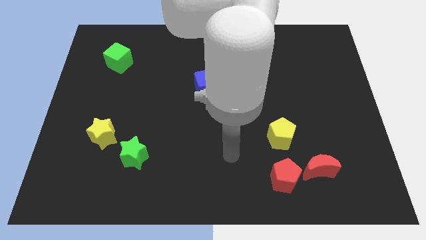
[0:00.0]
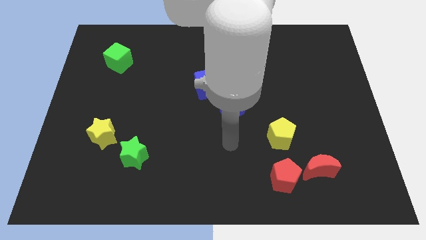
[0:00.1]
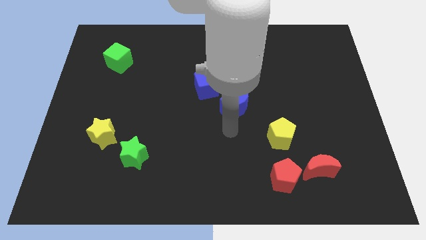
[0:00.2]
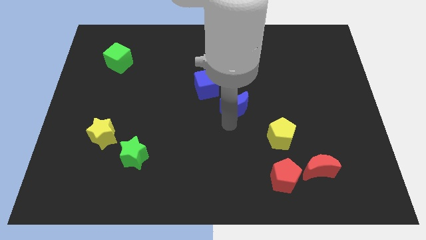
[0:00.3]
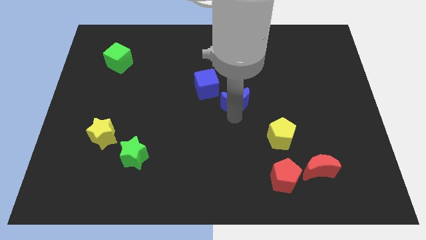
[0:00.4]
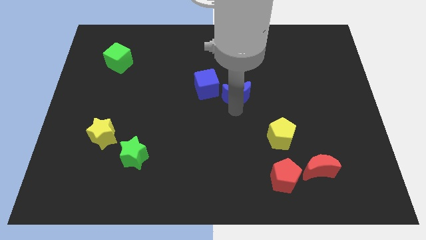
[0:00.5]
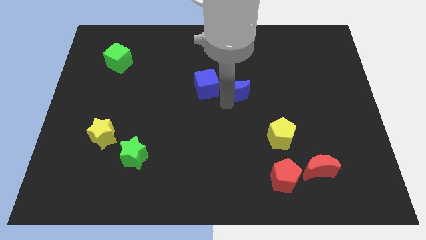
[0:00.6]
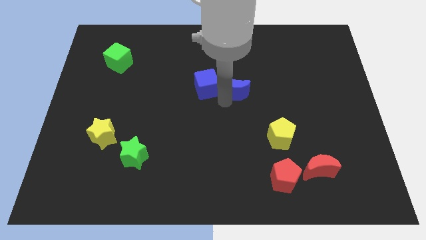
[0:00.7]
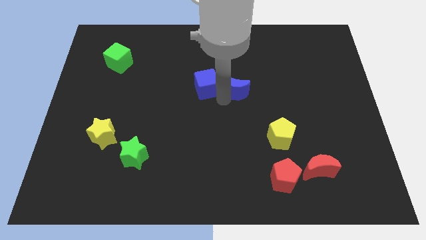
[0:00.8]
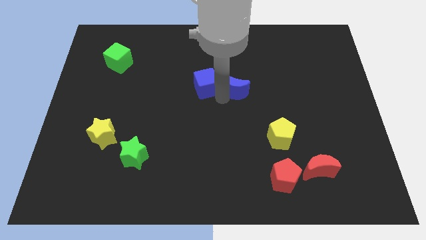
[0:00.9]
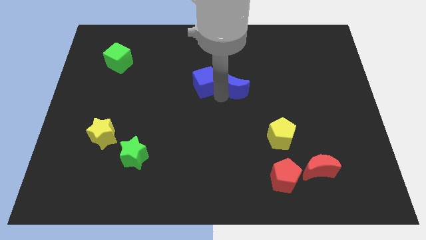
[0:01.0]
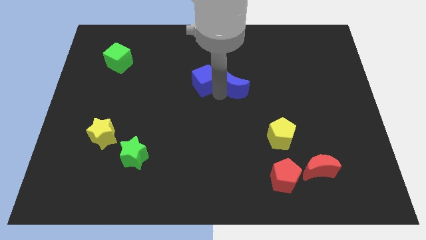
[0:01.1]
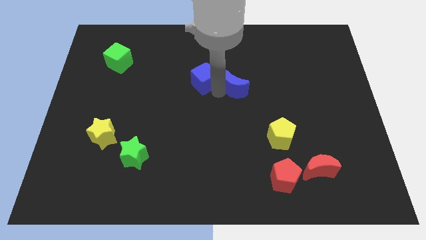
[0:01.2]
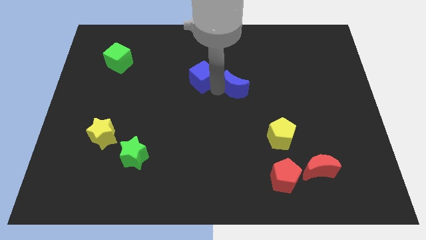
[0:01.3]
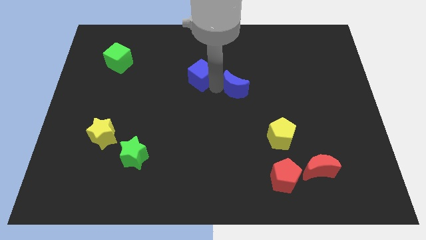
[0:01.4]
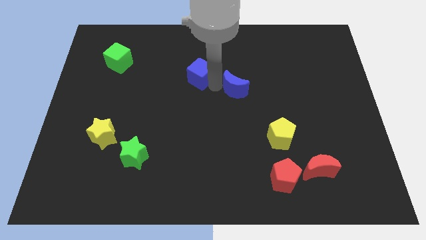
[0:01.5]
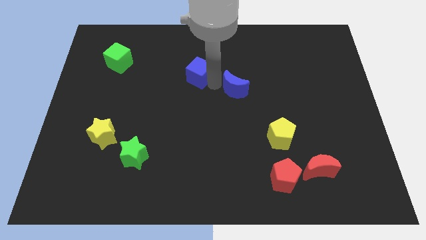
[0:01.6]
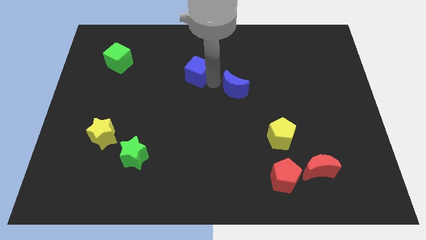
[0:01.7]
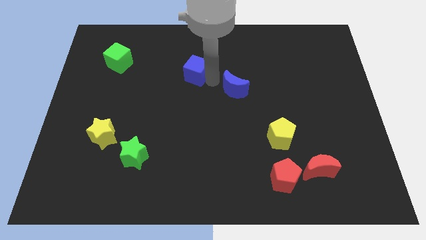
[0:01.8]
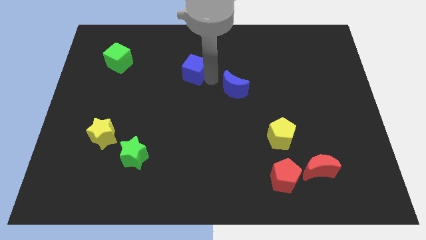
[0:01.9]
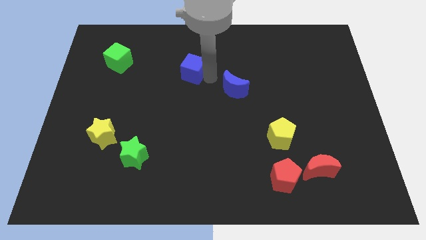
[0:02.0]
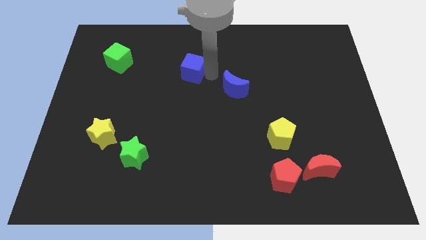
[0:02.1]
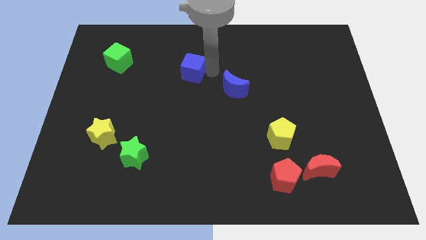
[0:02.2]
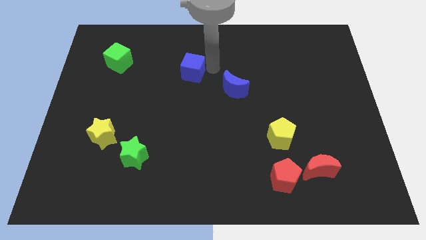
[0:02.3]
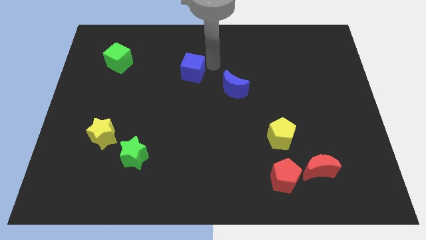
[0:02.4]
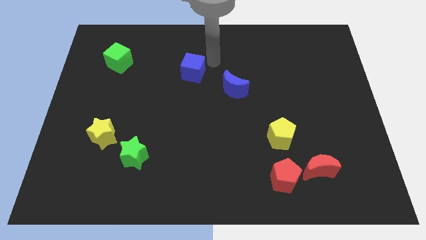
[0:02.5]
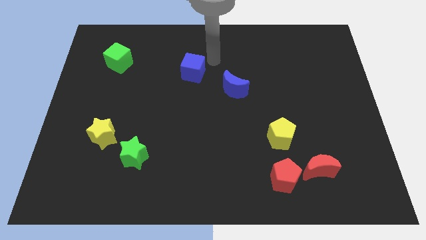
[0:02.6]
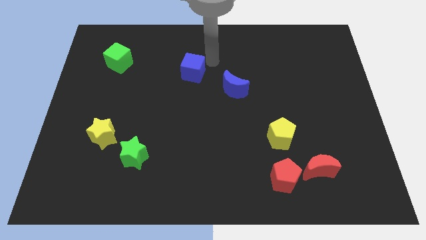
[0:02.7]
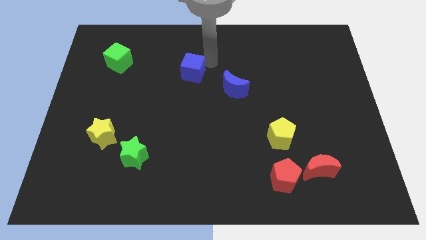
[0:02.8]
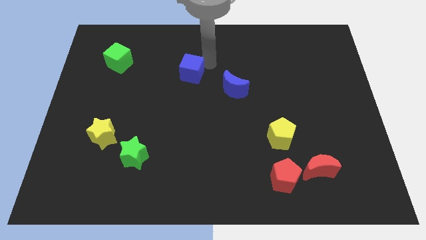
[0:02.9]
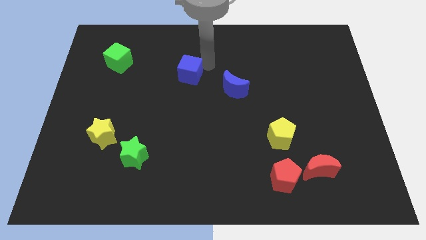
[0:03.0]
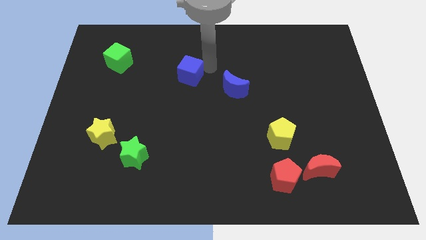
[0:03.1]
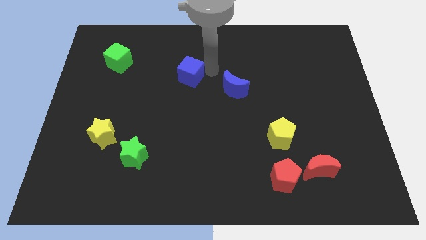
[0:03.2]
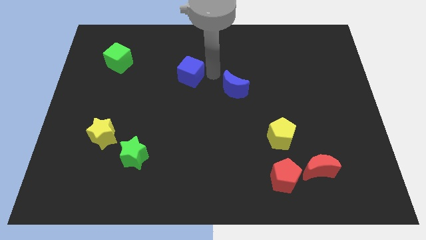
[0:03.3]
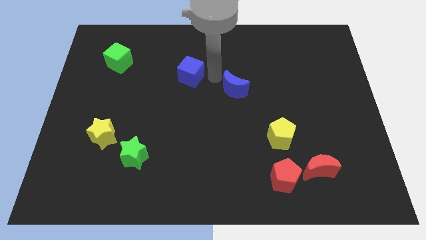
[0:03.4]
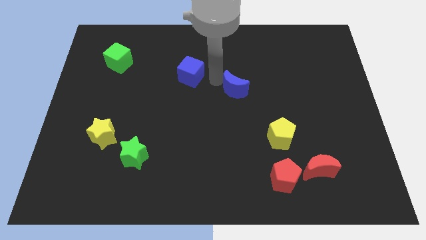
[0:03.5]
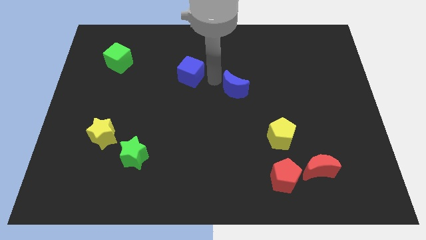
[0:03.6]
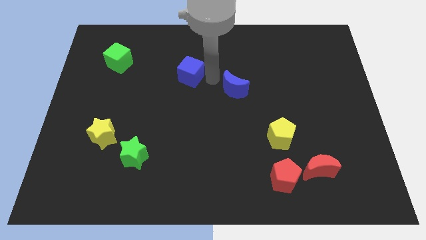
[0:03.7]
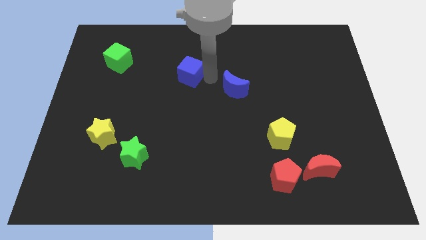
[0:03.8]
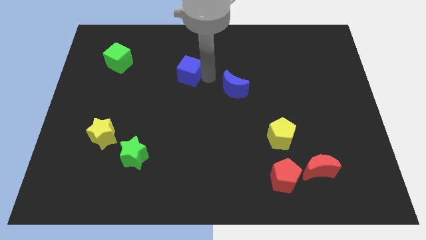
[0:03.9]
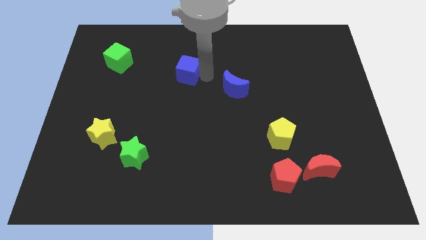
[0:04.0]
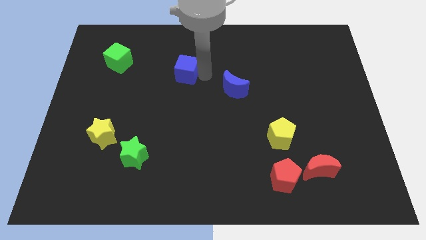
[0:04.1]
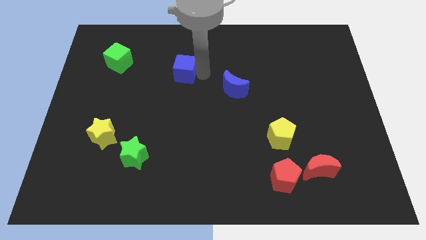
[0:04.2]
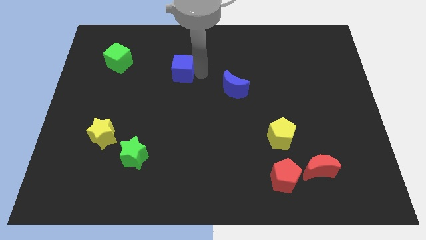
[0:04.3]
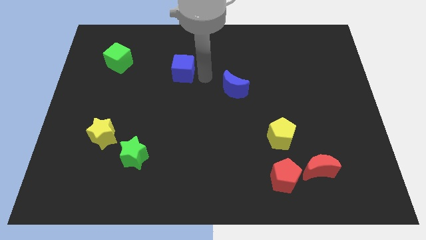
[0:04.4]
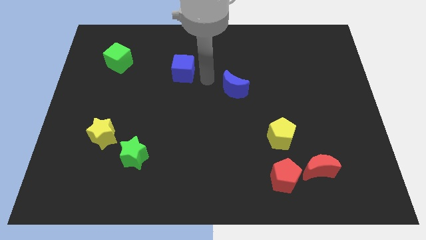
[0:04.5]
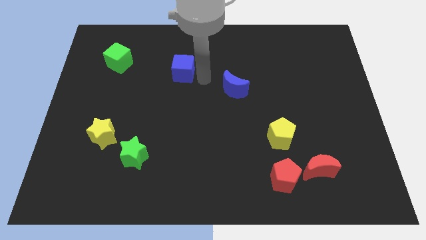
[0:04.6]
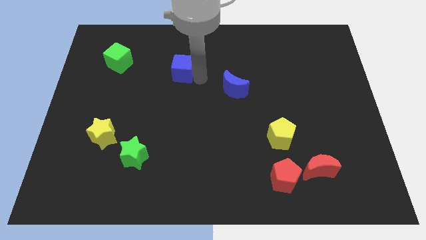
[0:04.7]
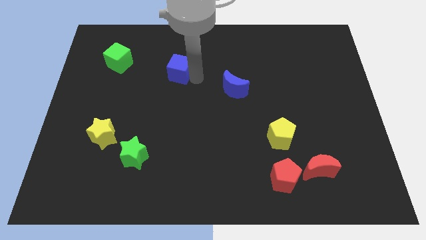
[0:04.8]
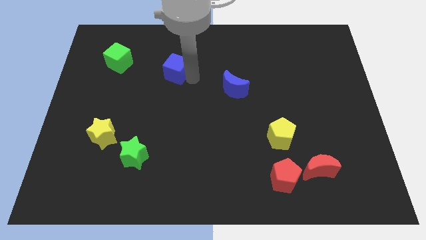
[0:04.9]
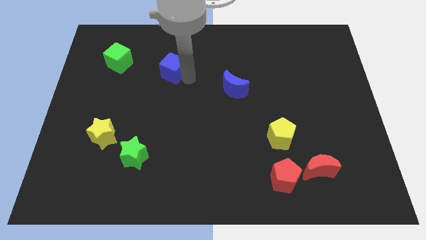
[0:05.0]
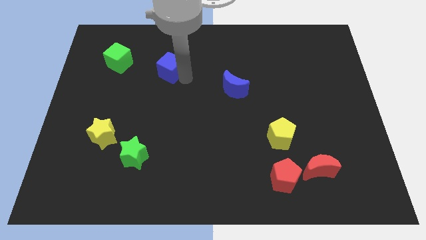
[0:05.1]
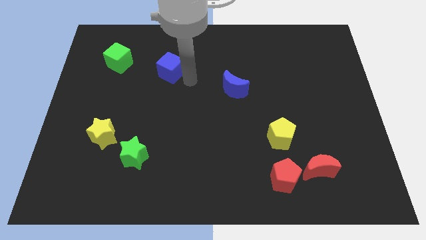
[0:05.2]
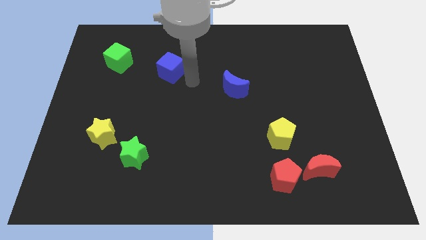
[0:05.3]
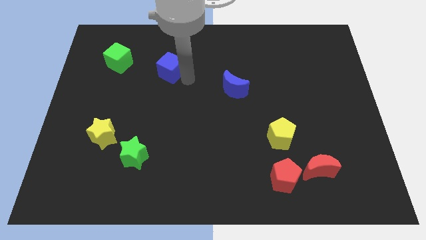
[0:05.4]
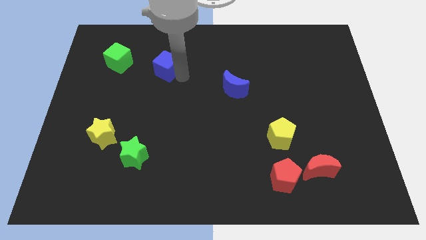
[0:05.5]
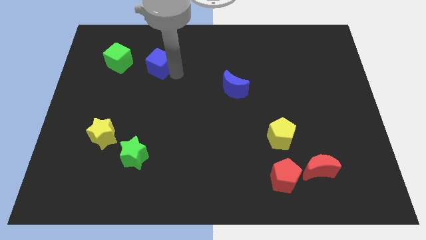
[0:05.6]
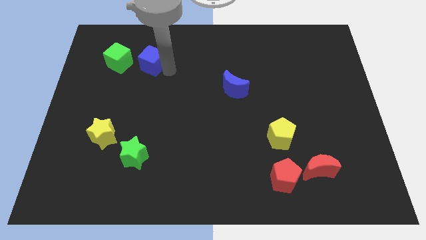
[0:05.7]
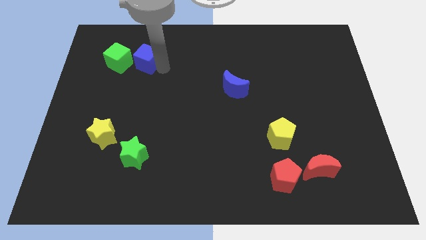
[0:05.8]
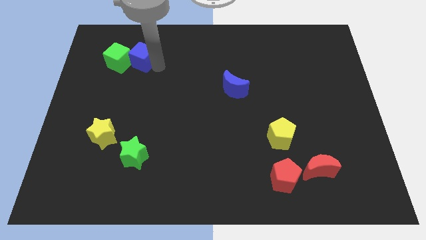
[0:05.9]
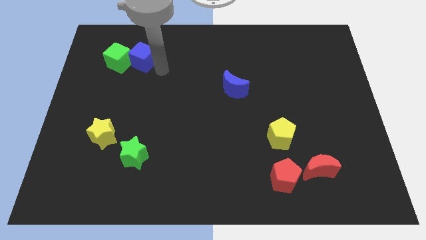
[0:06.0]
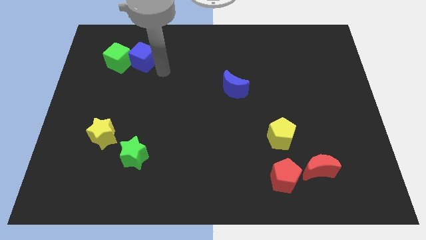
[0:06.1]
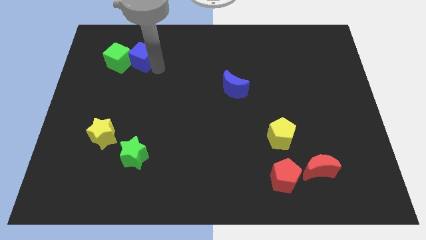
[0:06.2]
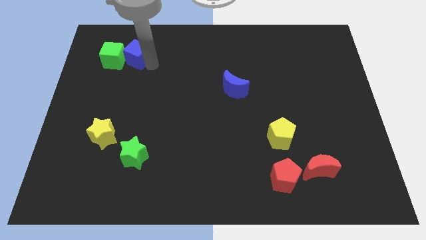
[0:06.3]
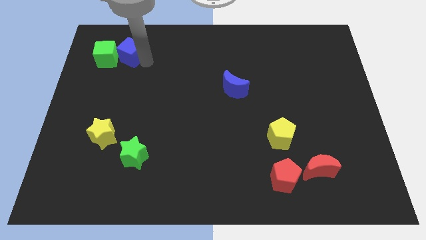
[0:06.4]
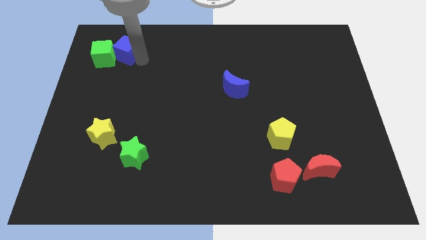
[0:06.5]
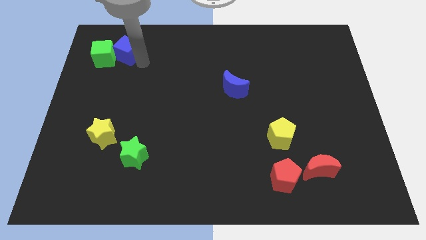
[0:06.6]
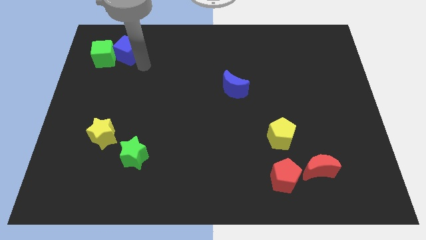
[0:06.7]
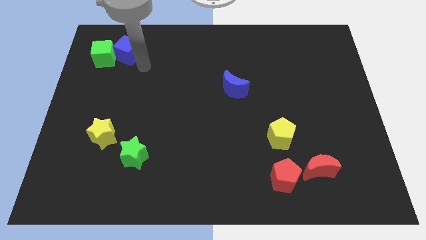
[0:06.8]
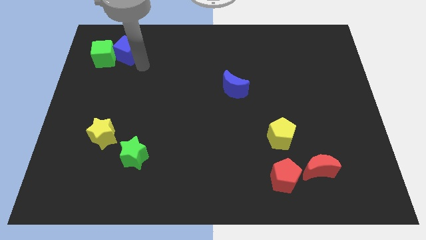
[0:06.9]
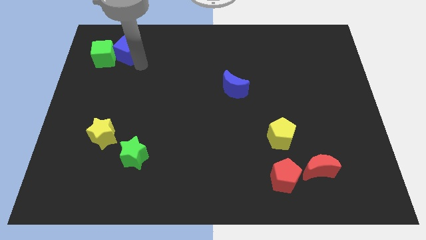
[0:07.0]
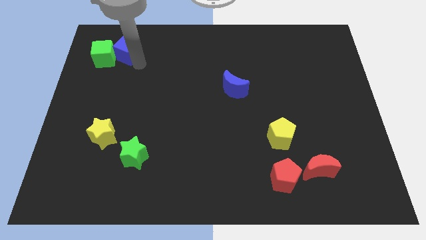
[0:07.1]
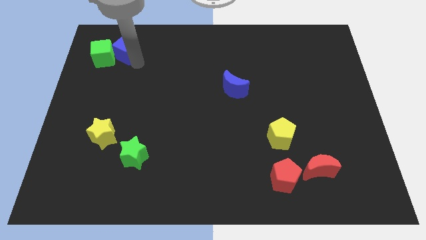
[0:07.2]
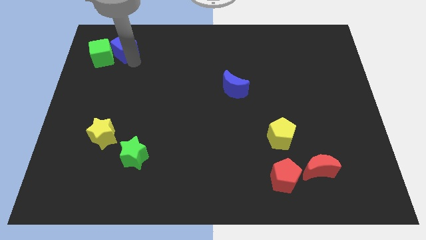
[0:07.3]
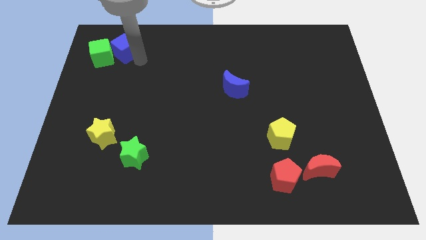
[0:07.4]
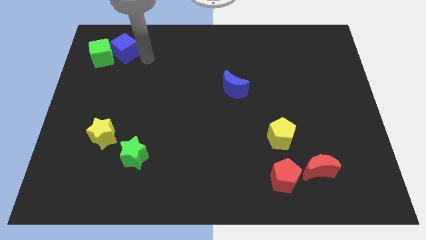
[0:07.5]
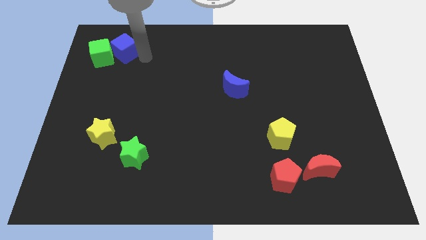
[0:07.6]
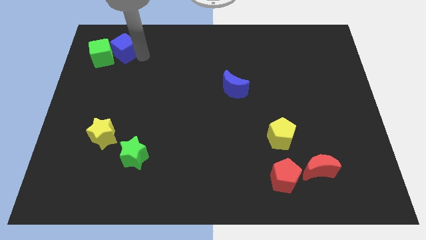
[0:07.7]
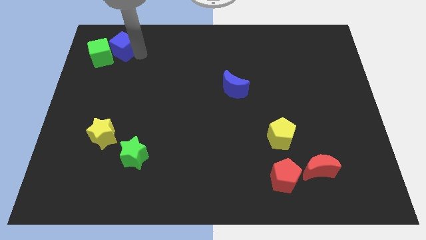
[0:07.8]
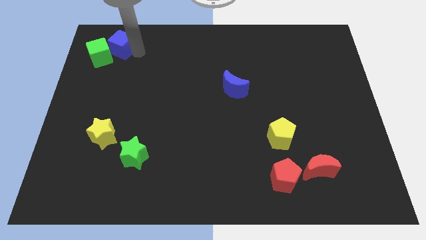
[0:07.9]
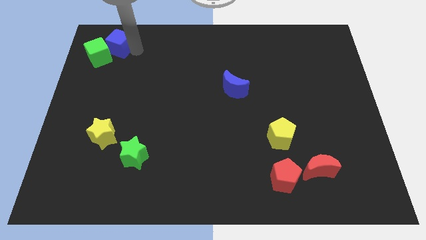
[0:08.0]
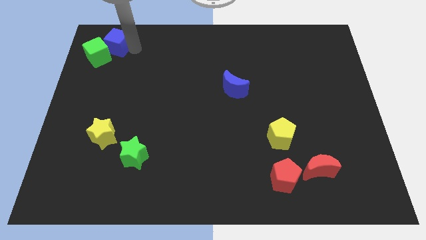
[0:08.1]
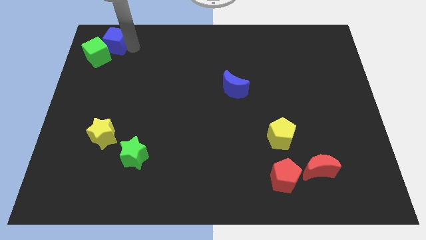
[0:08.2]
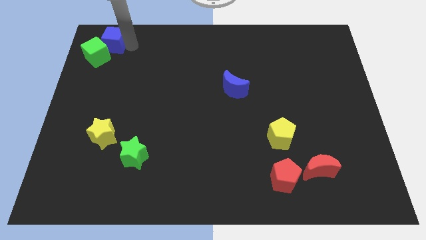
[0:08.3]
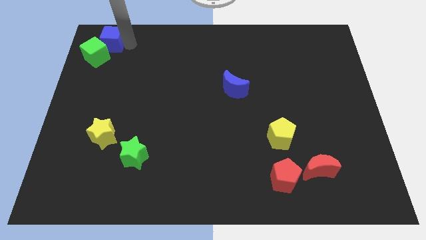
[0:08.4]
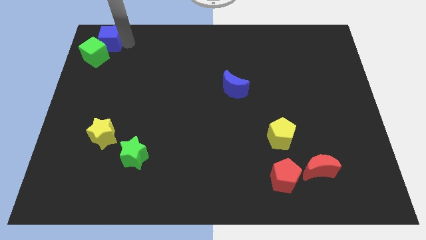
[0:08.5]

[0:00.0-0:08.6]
slide the blue cube to the upper left corner
